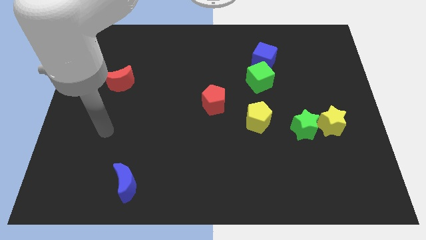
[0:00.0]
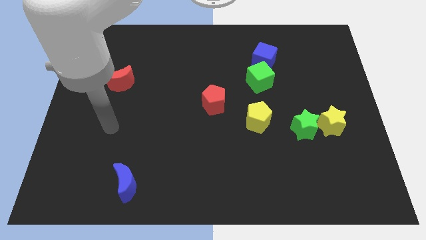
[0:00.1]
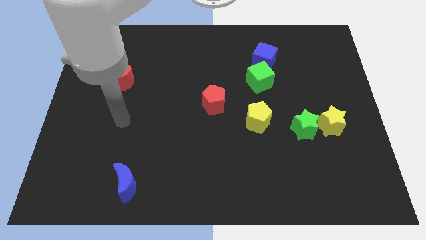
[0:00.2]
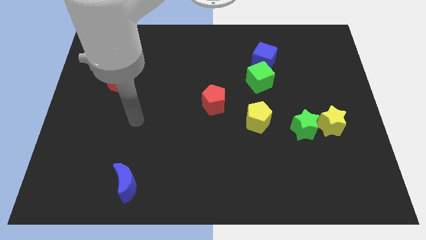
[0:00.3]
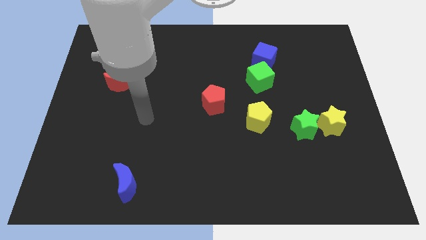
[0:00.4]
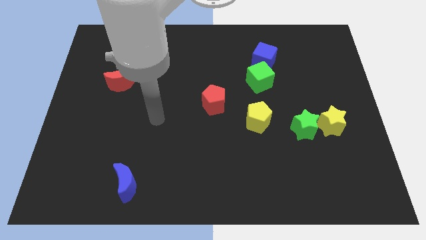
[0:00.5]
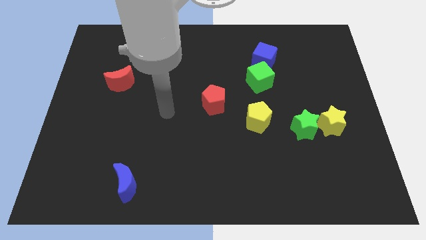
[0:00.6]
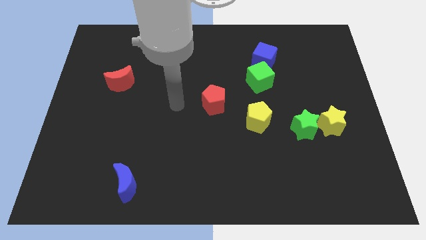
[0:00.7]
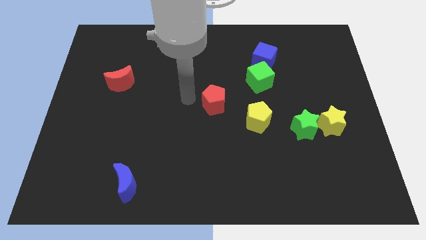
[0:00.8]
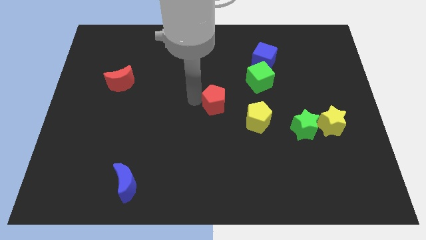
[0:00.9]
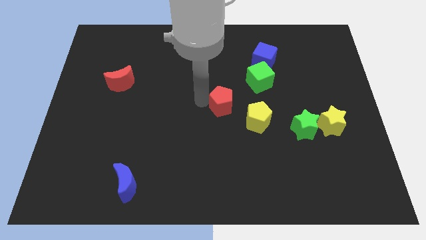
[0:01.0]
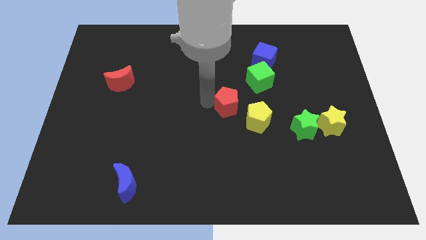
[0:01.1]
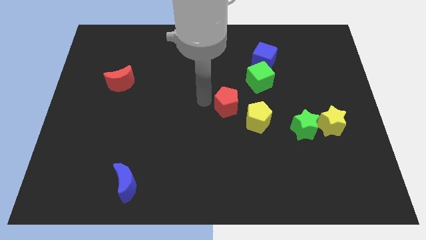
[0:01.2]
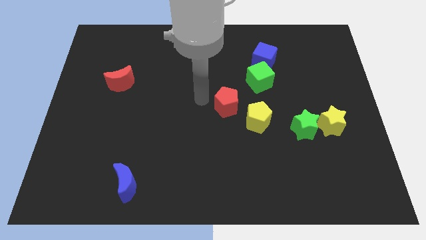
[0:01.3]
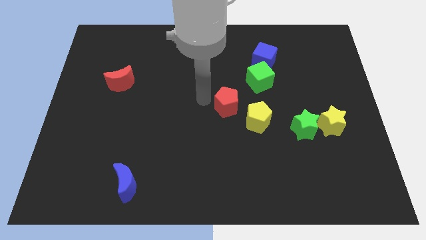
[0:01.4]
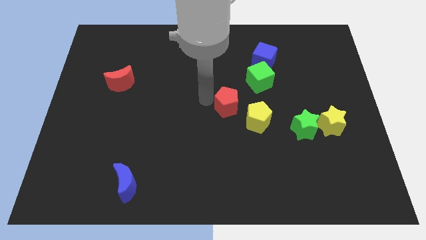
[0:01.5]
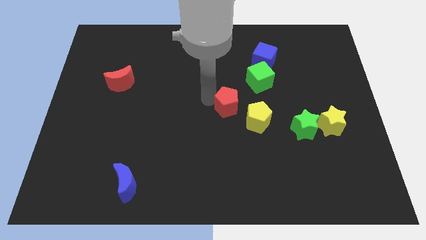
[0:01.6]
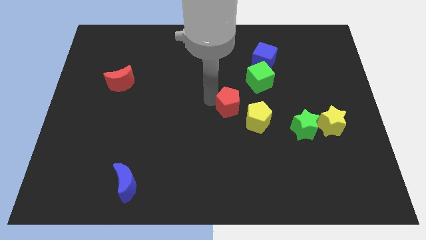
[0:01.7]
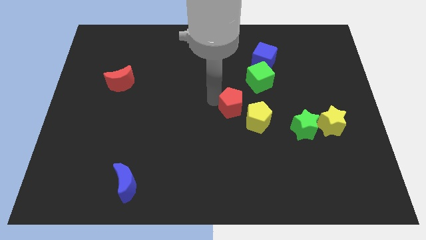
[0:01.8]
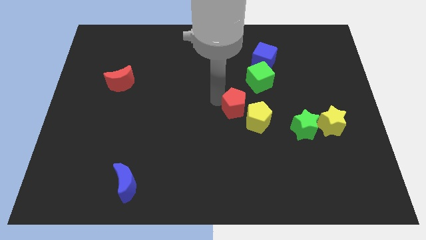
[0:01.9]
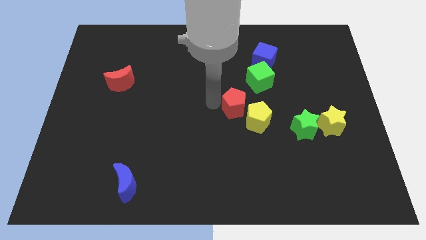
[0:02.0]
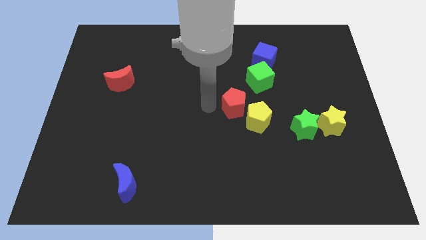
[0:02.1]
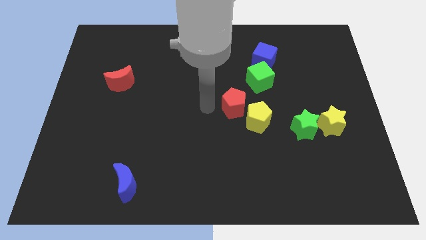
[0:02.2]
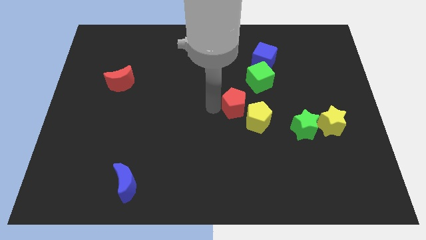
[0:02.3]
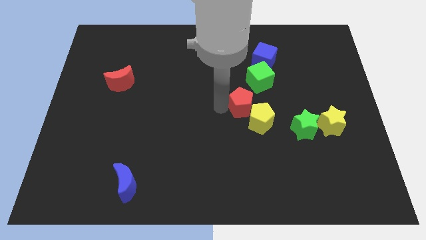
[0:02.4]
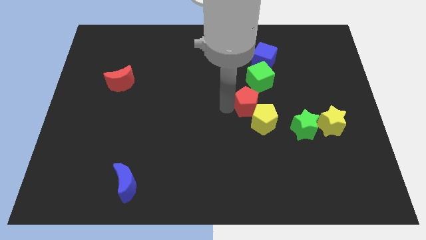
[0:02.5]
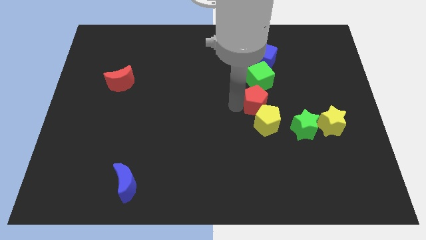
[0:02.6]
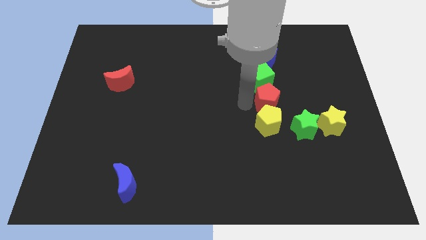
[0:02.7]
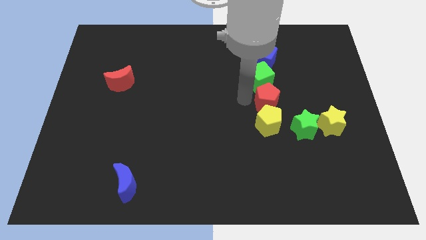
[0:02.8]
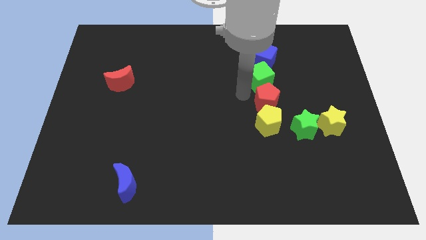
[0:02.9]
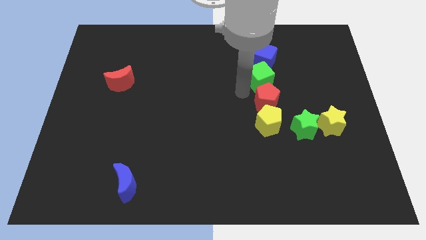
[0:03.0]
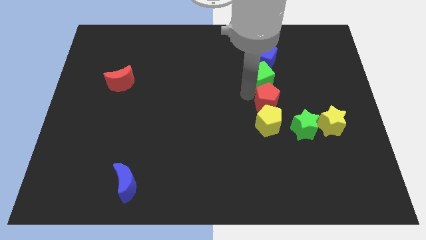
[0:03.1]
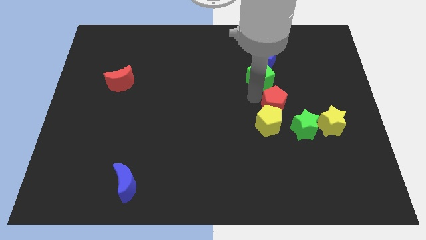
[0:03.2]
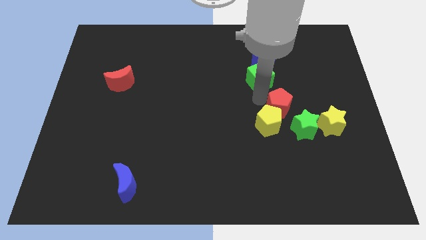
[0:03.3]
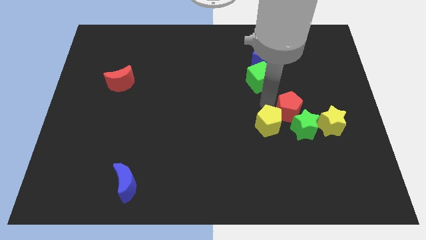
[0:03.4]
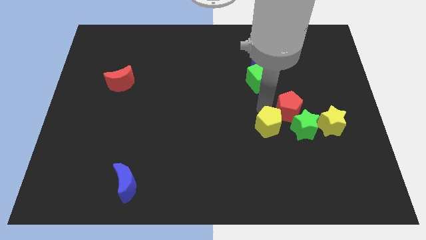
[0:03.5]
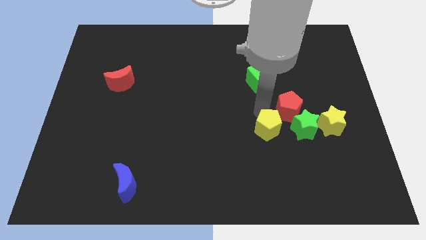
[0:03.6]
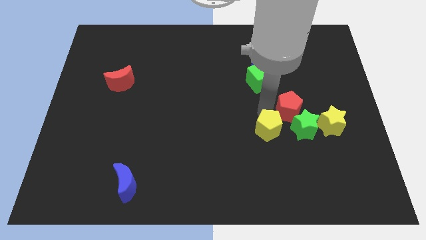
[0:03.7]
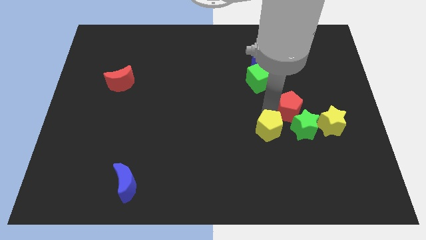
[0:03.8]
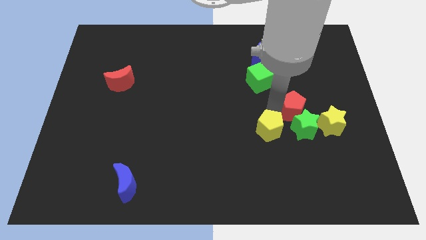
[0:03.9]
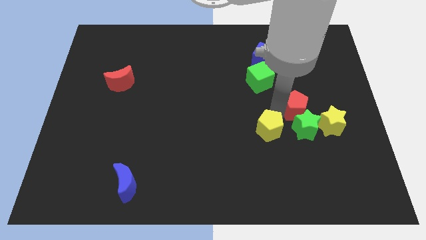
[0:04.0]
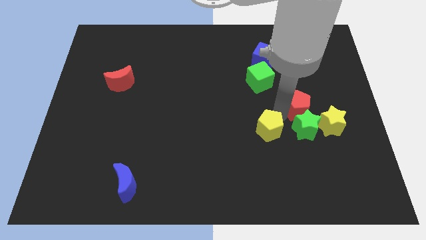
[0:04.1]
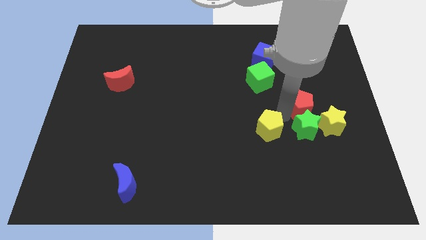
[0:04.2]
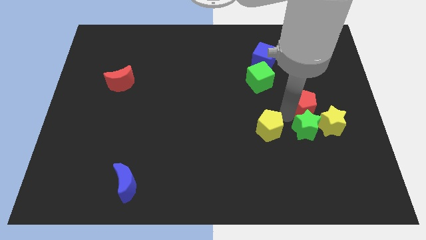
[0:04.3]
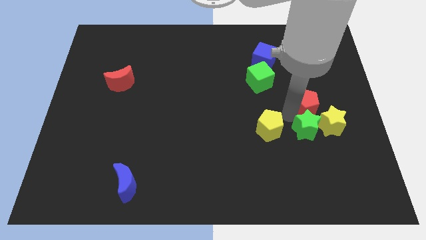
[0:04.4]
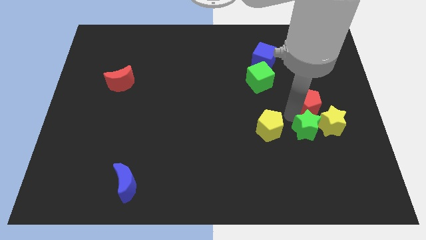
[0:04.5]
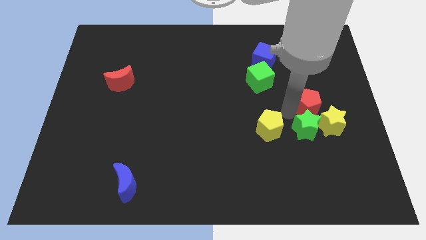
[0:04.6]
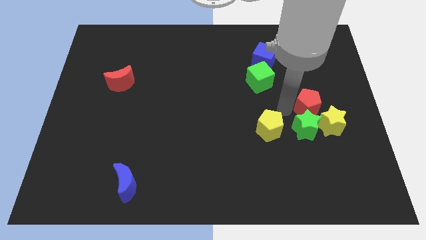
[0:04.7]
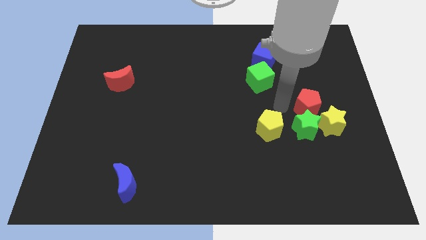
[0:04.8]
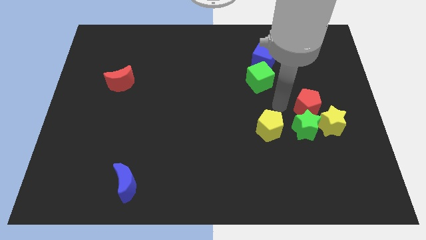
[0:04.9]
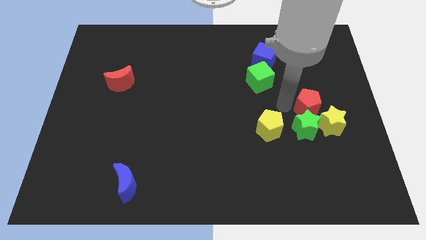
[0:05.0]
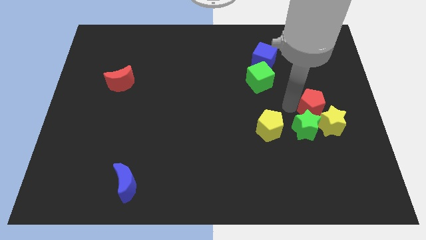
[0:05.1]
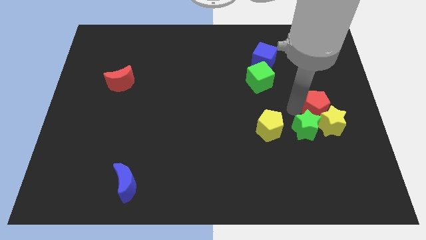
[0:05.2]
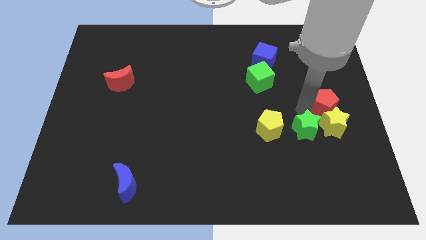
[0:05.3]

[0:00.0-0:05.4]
move the red pentagon to the right side

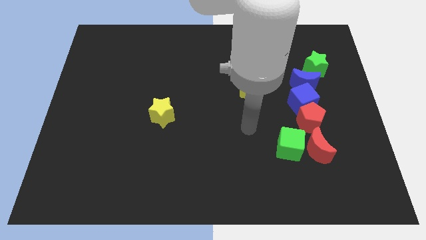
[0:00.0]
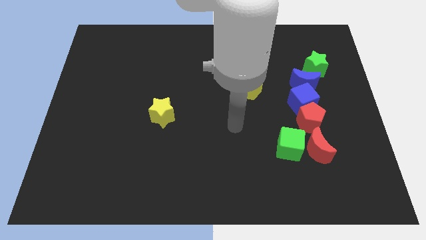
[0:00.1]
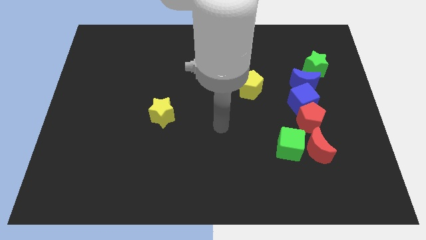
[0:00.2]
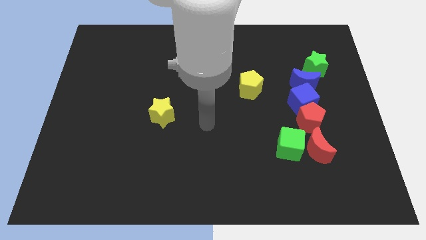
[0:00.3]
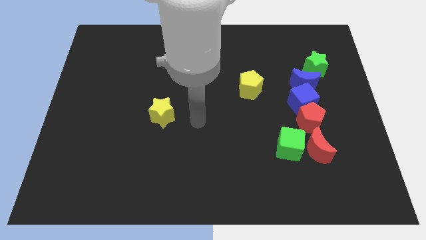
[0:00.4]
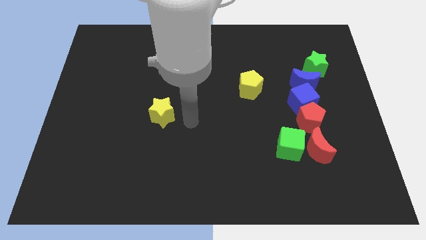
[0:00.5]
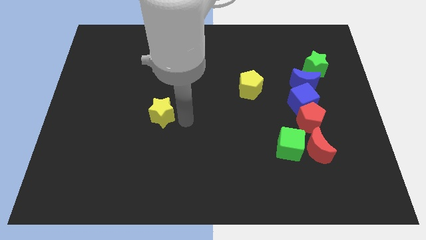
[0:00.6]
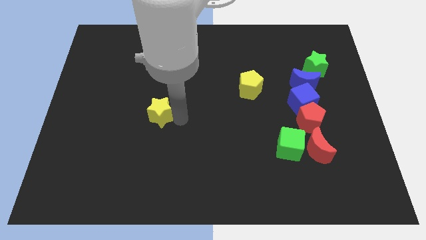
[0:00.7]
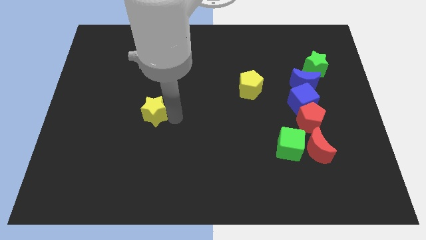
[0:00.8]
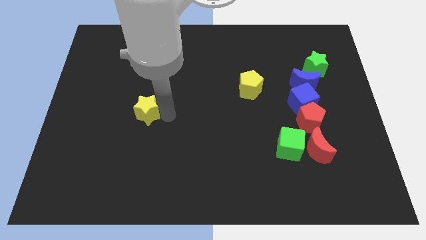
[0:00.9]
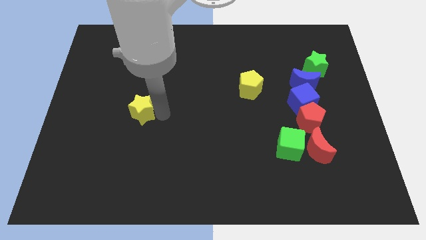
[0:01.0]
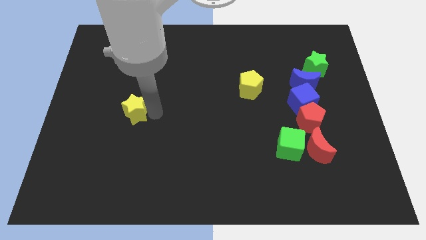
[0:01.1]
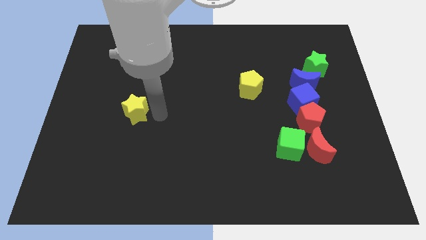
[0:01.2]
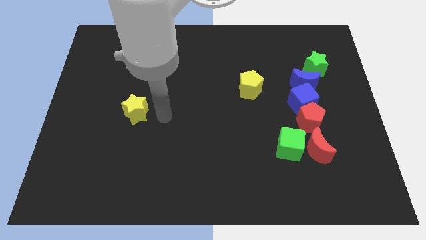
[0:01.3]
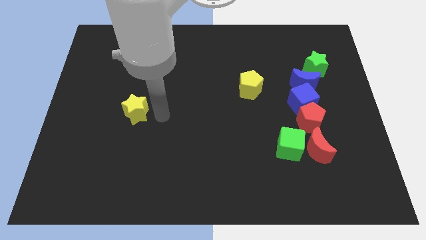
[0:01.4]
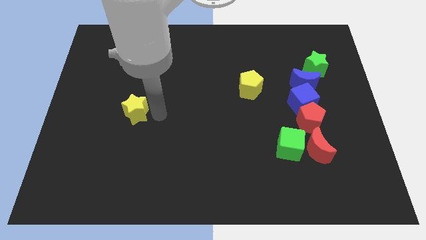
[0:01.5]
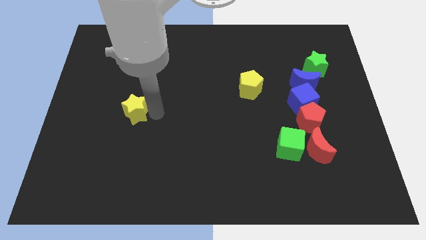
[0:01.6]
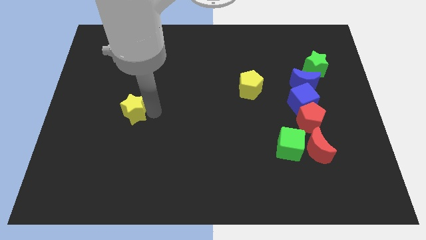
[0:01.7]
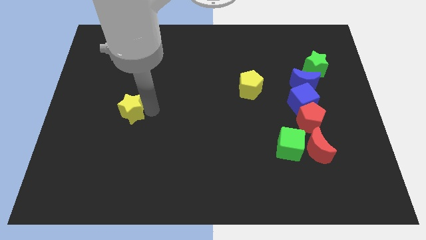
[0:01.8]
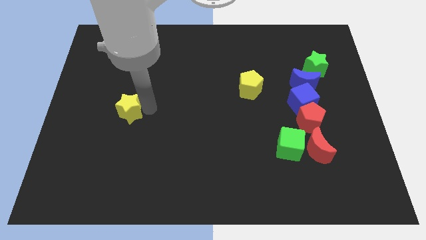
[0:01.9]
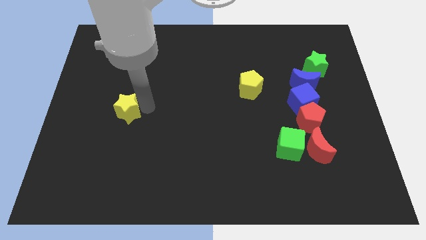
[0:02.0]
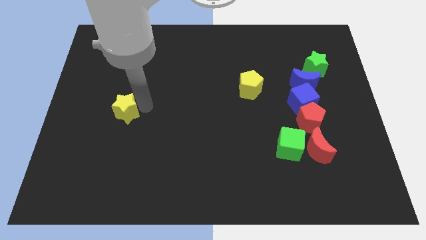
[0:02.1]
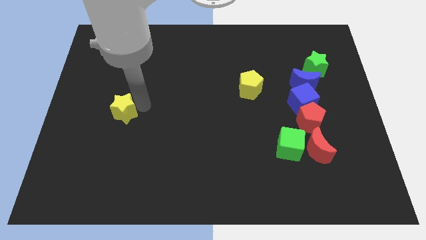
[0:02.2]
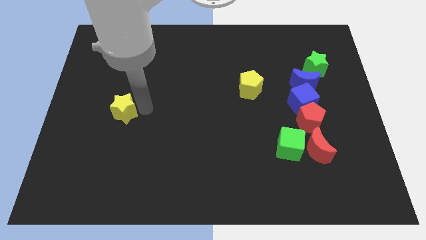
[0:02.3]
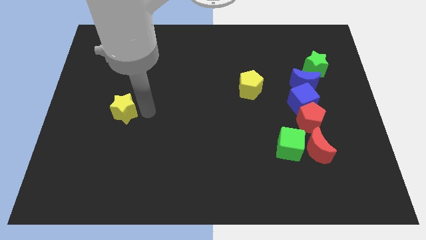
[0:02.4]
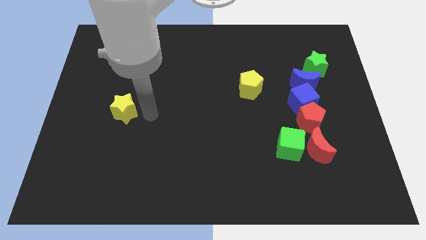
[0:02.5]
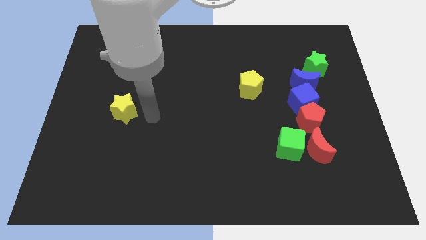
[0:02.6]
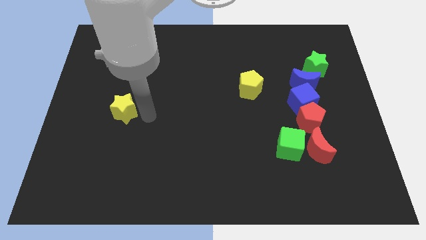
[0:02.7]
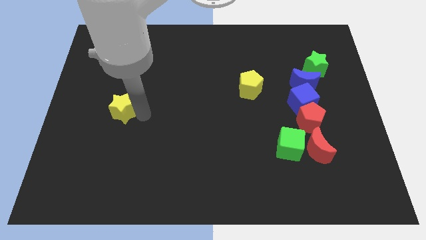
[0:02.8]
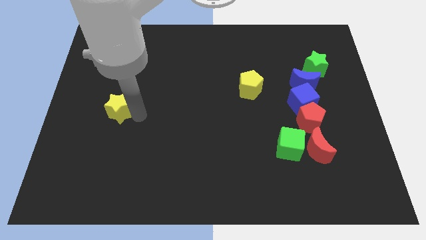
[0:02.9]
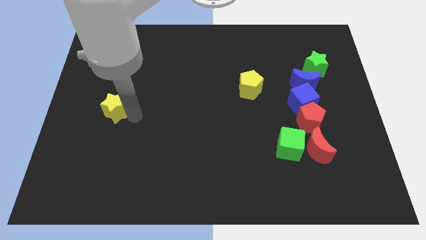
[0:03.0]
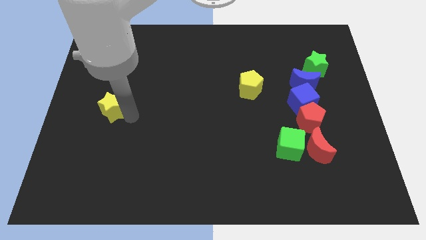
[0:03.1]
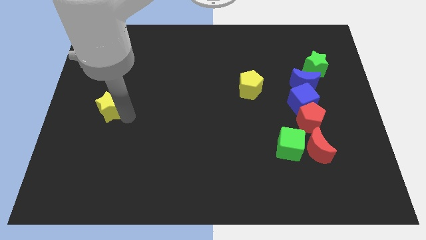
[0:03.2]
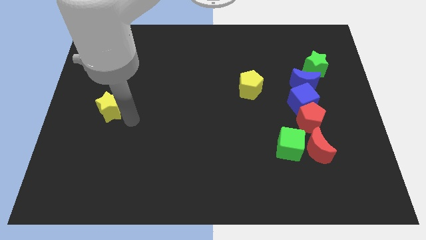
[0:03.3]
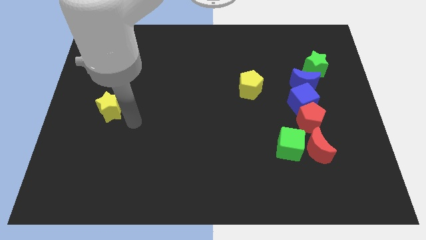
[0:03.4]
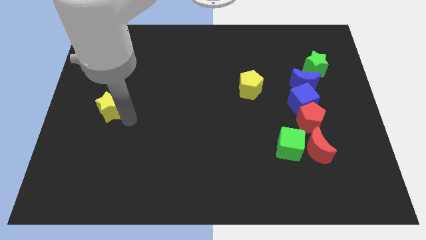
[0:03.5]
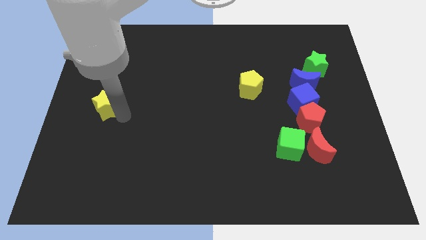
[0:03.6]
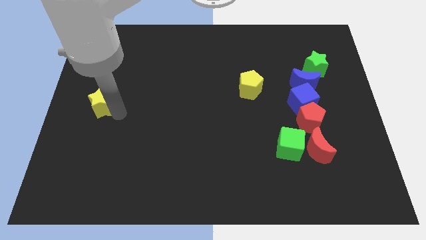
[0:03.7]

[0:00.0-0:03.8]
put the yellow star to the center left
